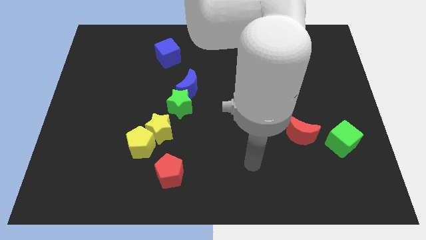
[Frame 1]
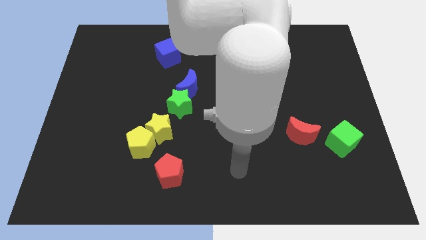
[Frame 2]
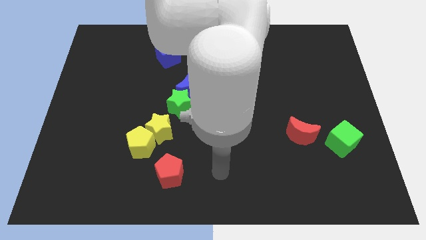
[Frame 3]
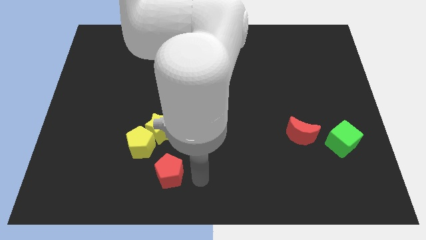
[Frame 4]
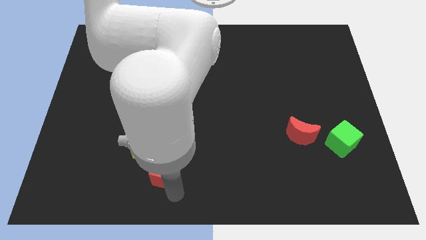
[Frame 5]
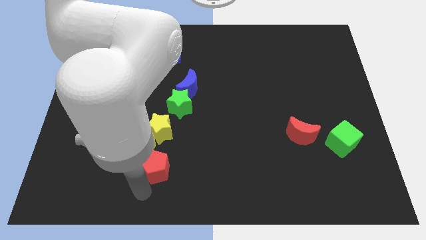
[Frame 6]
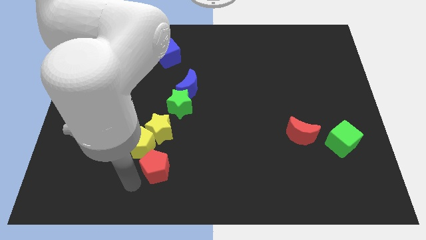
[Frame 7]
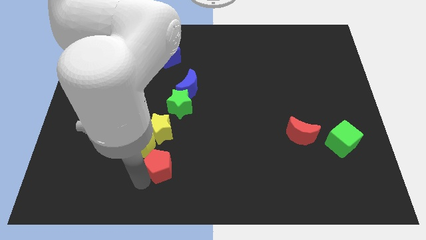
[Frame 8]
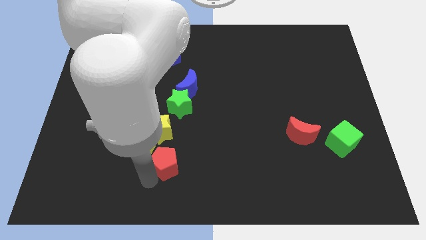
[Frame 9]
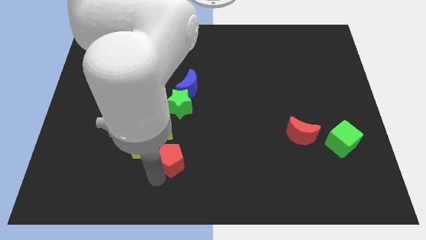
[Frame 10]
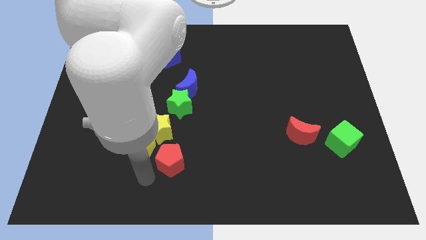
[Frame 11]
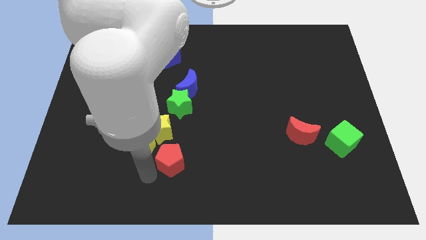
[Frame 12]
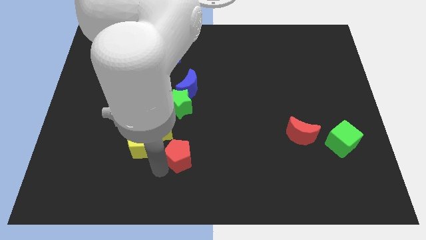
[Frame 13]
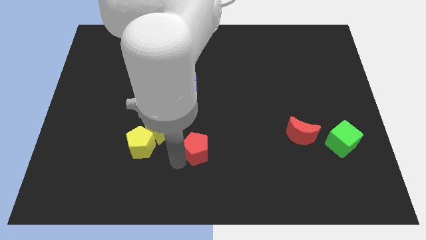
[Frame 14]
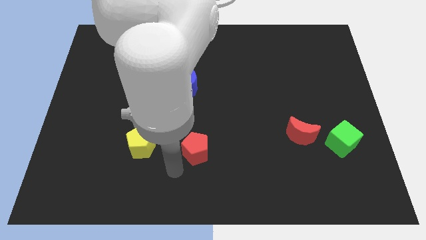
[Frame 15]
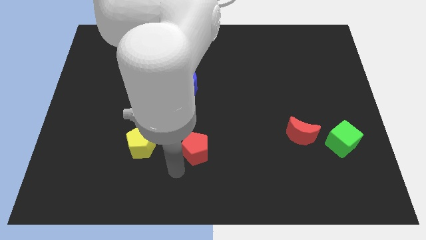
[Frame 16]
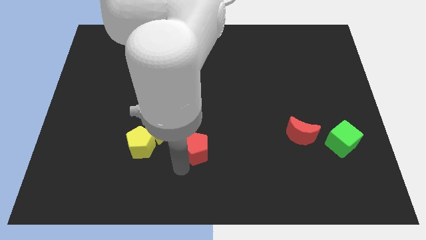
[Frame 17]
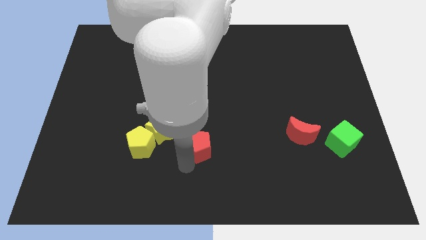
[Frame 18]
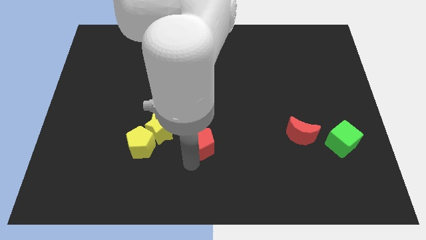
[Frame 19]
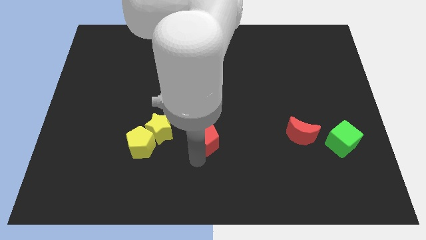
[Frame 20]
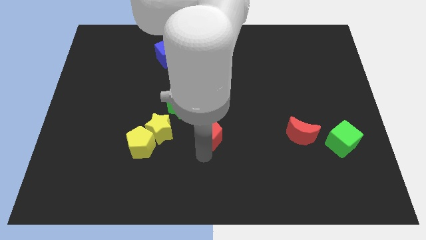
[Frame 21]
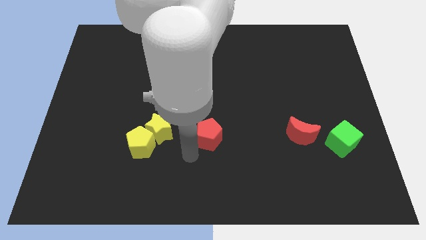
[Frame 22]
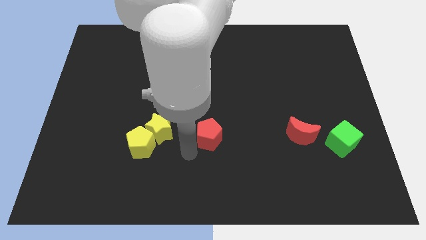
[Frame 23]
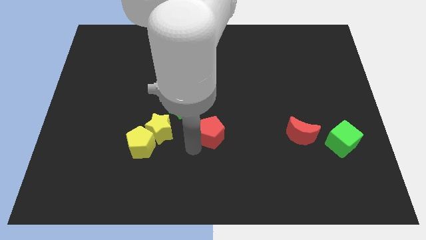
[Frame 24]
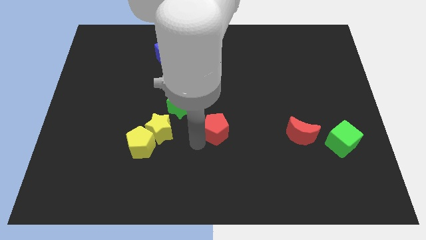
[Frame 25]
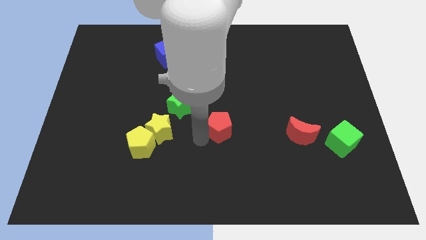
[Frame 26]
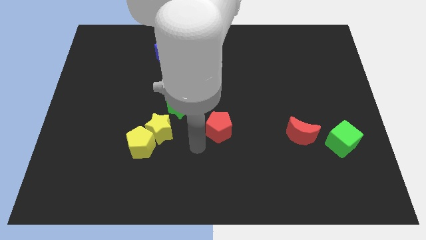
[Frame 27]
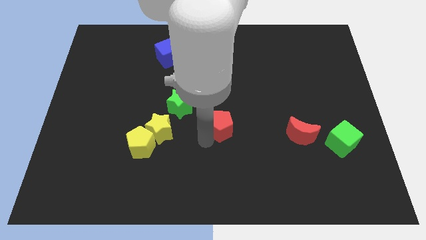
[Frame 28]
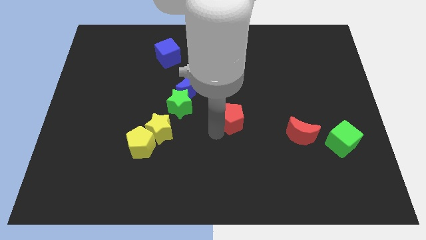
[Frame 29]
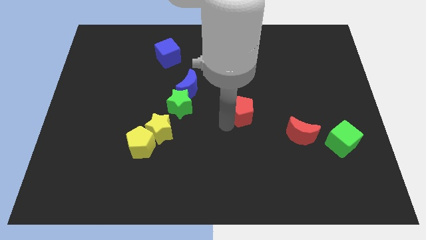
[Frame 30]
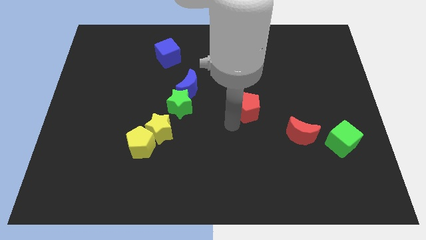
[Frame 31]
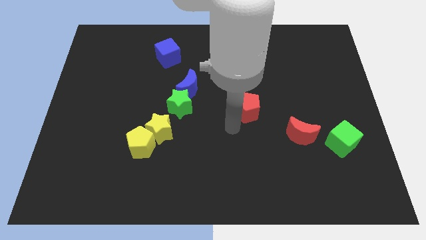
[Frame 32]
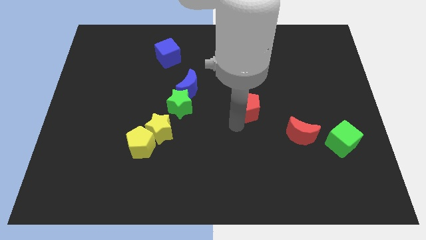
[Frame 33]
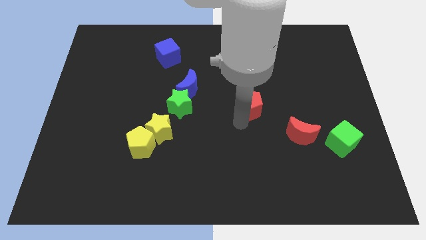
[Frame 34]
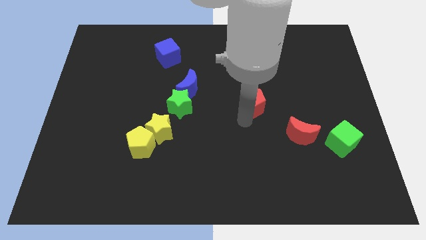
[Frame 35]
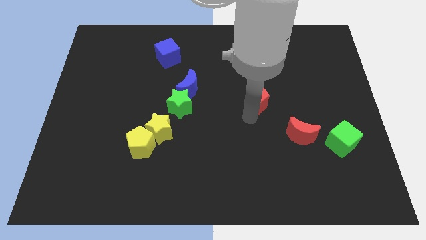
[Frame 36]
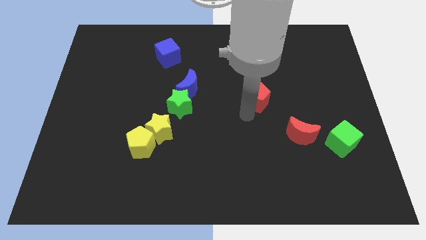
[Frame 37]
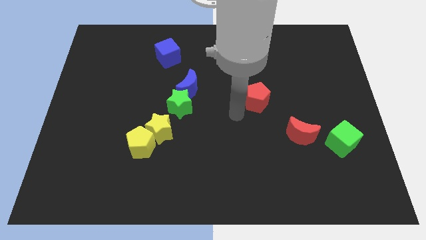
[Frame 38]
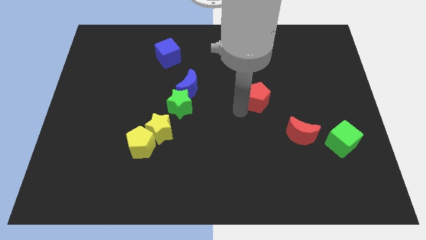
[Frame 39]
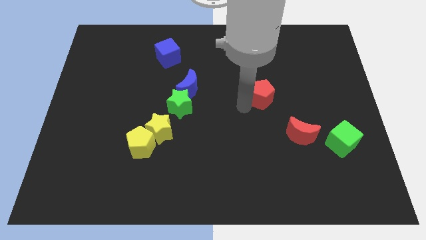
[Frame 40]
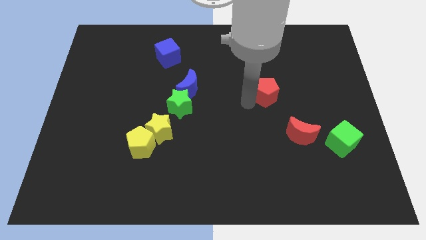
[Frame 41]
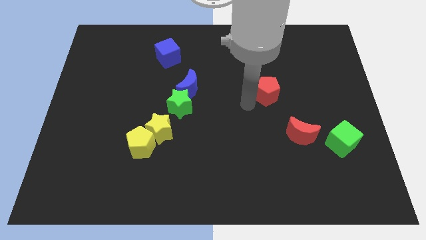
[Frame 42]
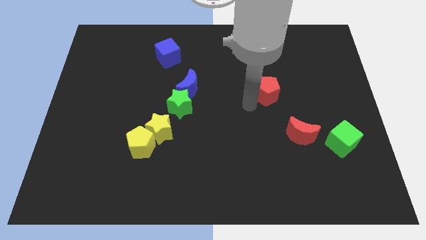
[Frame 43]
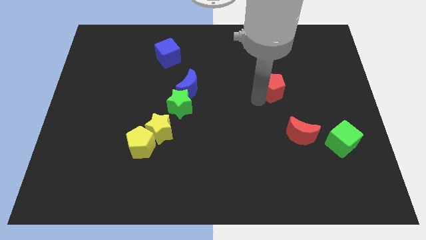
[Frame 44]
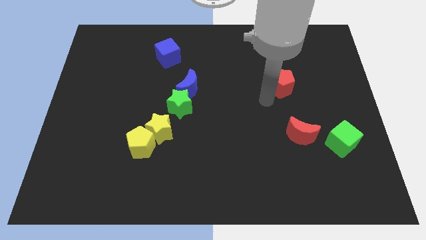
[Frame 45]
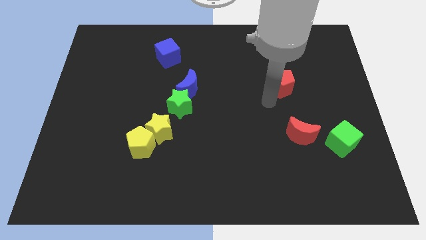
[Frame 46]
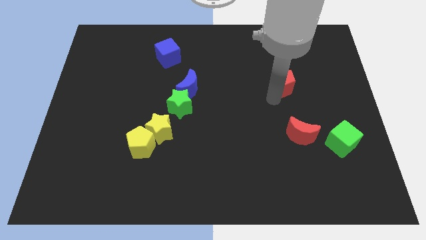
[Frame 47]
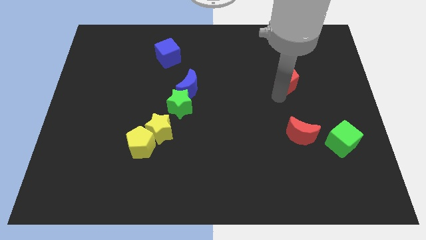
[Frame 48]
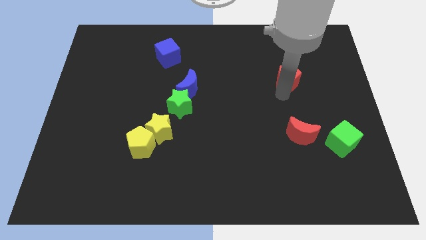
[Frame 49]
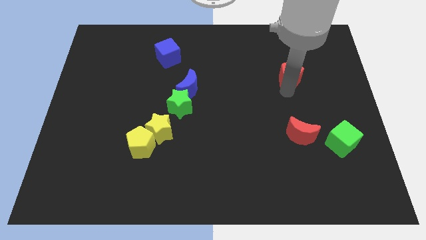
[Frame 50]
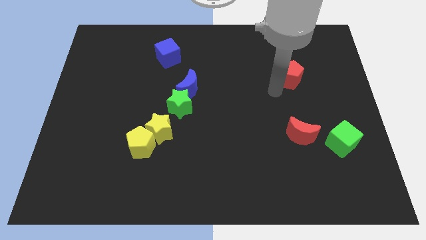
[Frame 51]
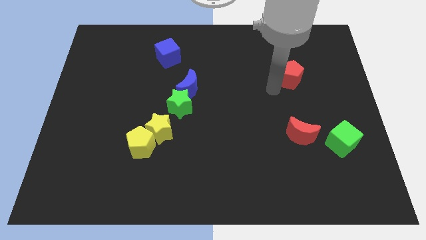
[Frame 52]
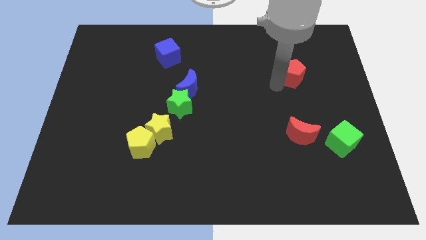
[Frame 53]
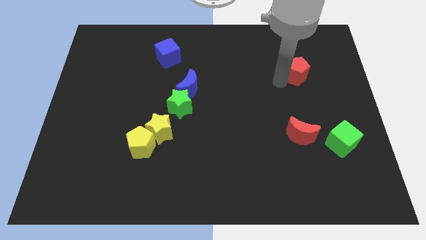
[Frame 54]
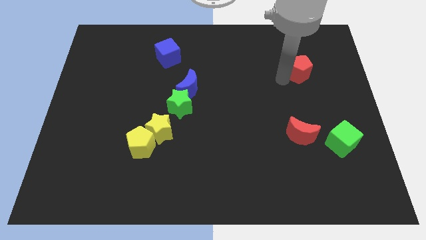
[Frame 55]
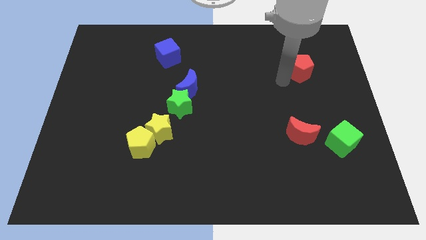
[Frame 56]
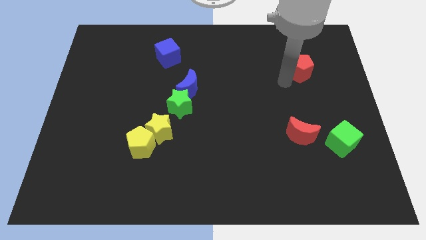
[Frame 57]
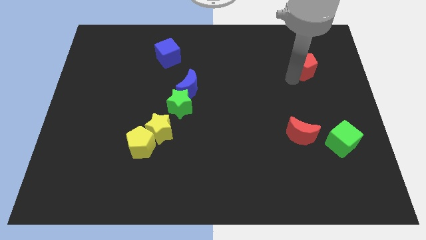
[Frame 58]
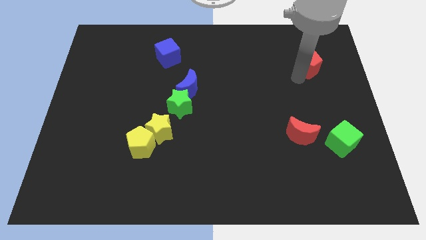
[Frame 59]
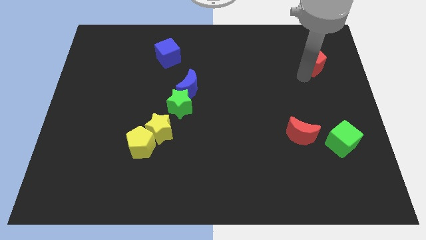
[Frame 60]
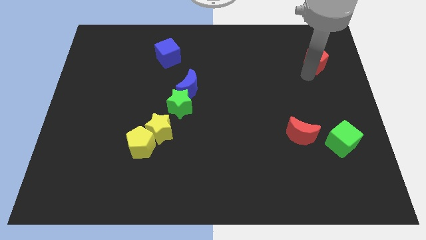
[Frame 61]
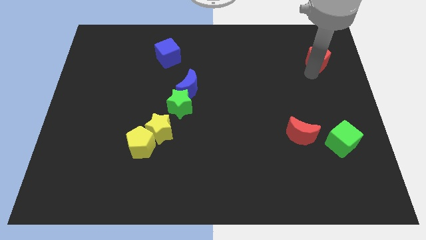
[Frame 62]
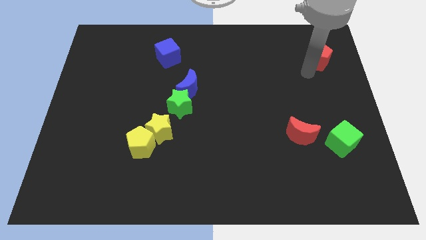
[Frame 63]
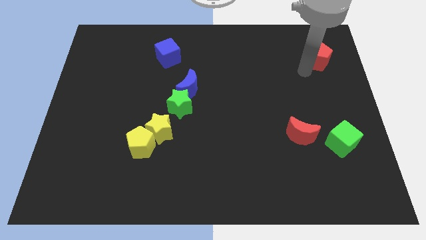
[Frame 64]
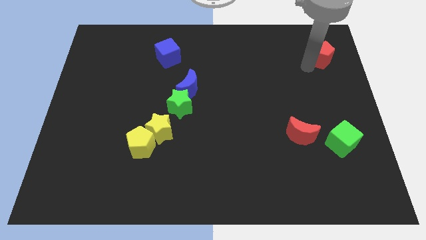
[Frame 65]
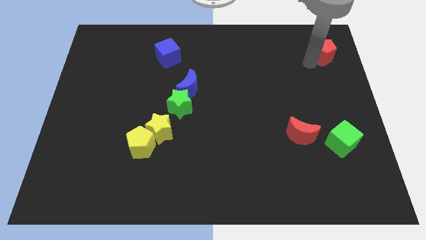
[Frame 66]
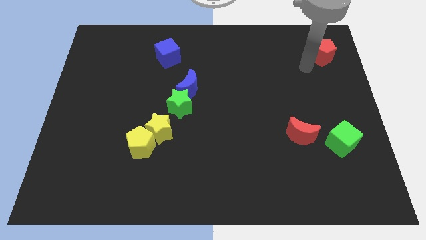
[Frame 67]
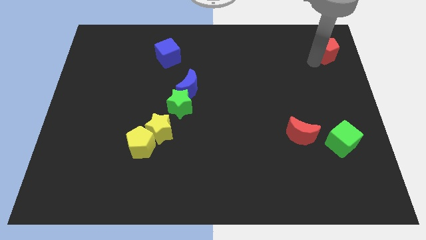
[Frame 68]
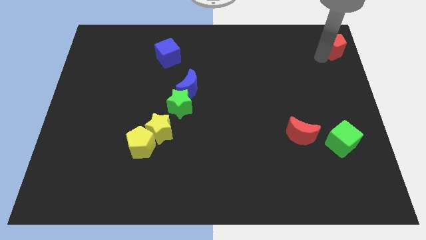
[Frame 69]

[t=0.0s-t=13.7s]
push the red pentagon to the top right of the board
